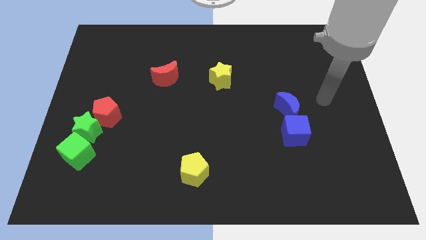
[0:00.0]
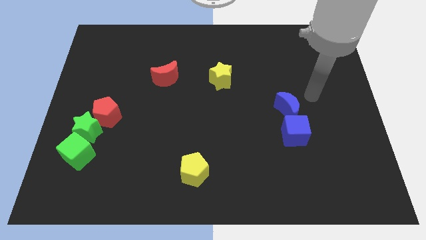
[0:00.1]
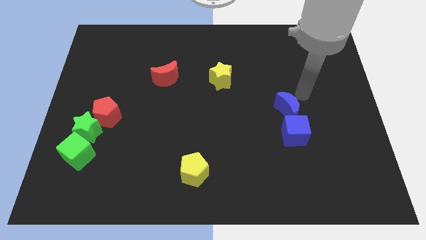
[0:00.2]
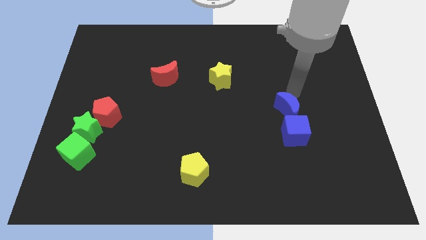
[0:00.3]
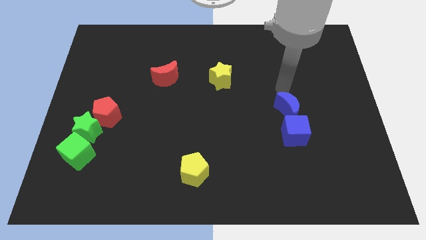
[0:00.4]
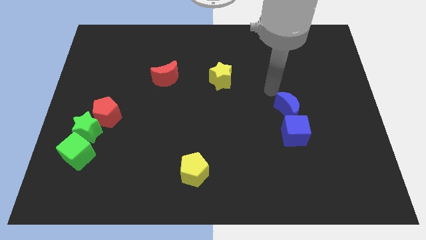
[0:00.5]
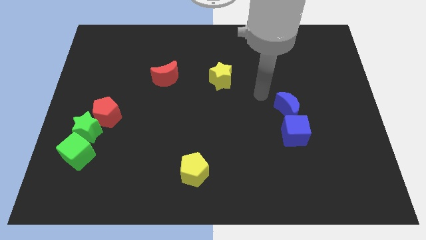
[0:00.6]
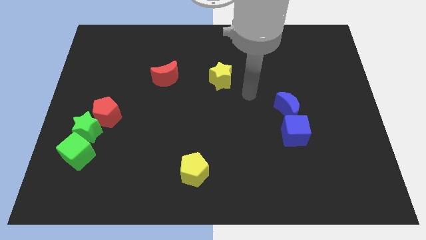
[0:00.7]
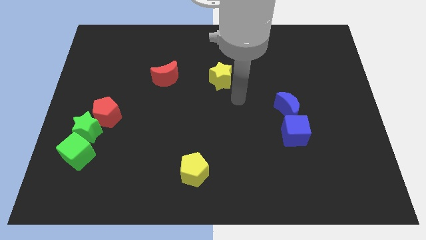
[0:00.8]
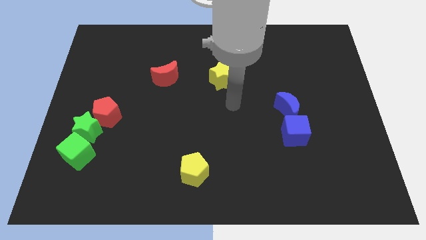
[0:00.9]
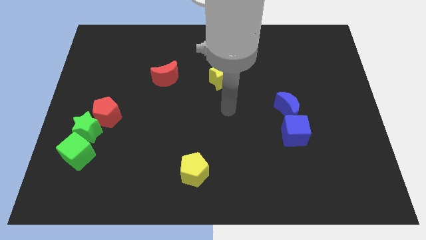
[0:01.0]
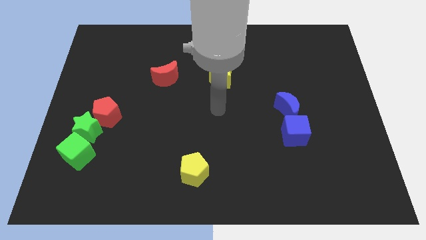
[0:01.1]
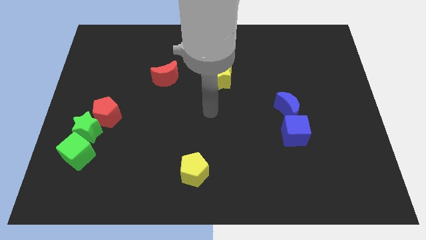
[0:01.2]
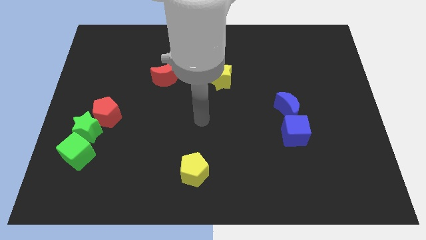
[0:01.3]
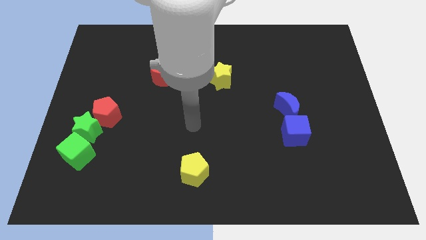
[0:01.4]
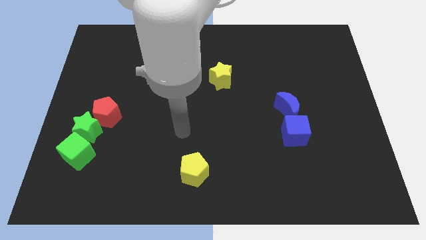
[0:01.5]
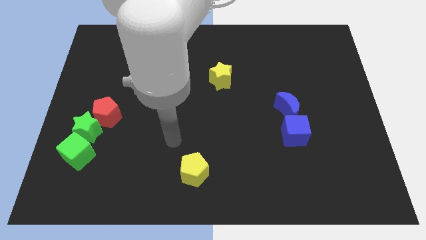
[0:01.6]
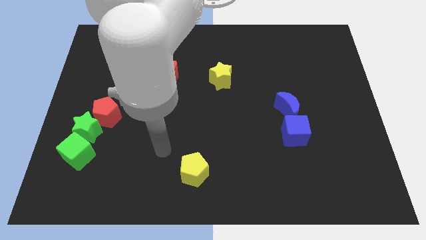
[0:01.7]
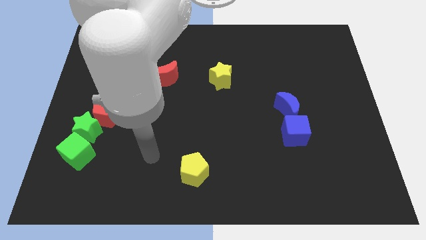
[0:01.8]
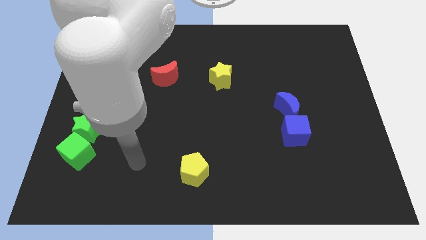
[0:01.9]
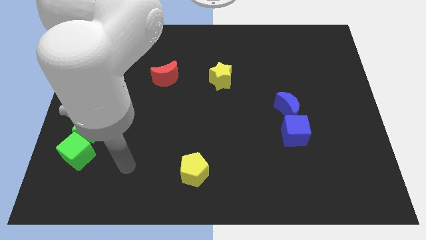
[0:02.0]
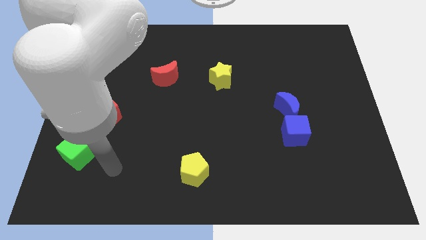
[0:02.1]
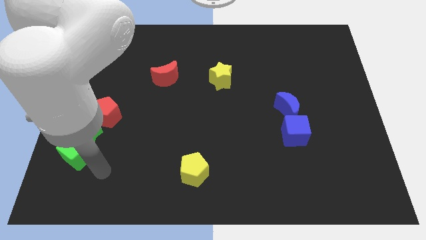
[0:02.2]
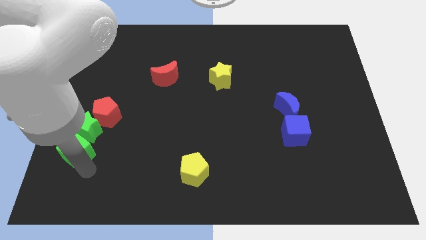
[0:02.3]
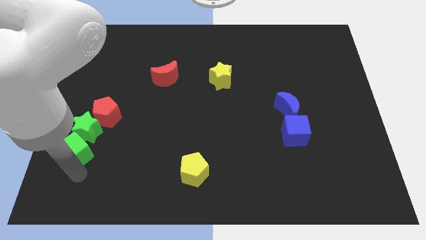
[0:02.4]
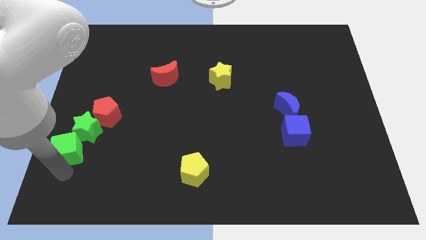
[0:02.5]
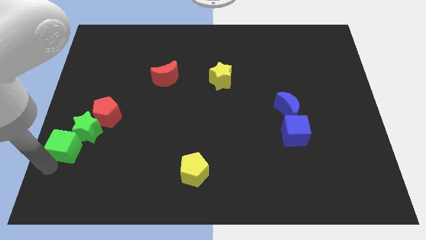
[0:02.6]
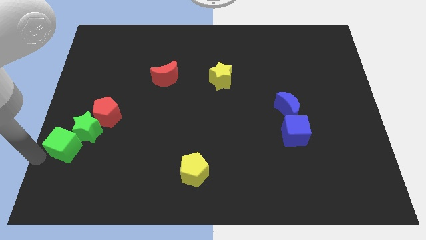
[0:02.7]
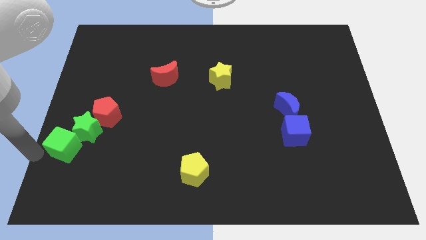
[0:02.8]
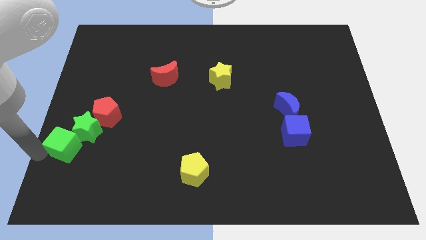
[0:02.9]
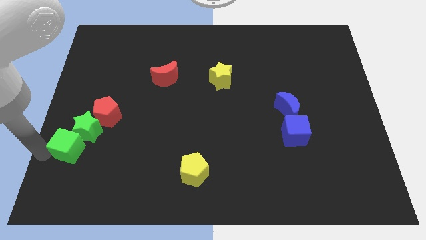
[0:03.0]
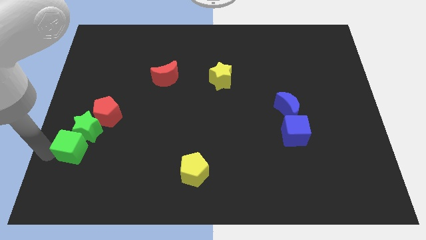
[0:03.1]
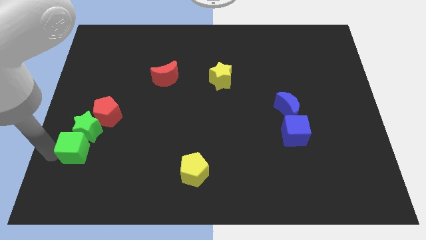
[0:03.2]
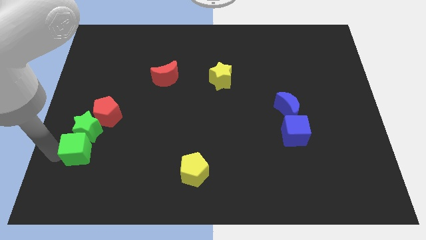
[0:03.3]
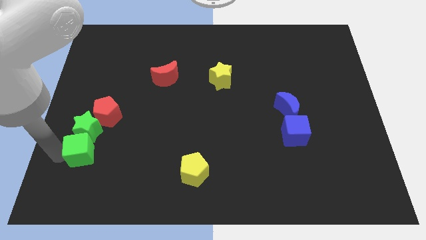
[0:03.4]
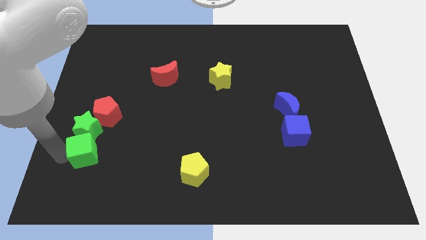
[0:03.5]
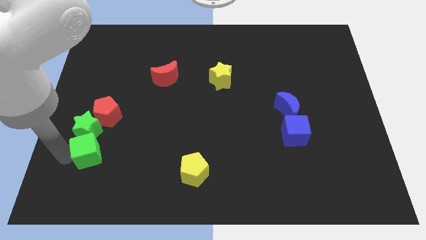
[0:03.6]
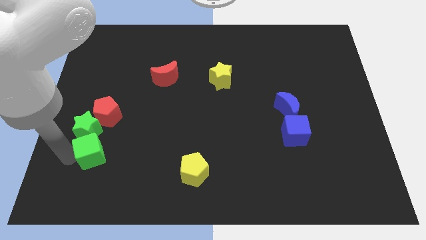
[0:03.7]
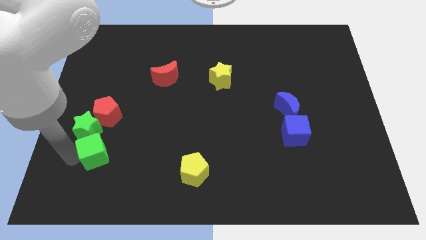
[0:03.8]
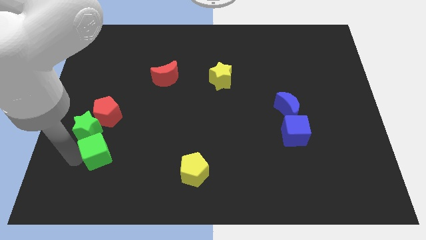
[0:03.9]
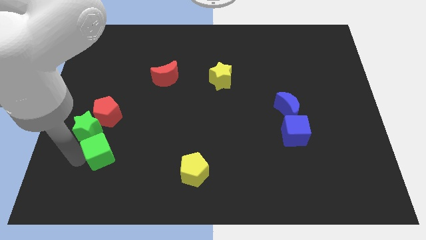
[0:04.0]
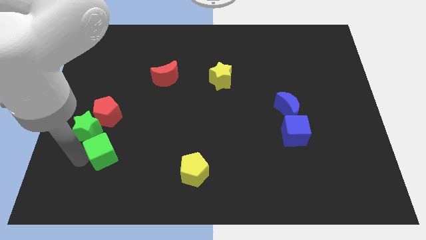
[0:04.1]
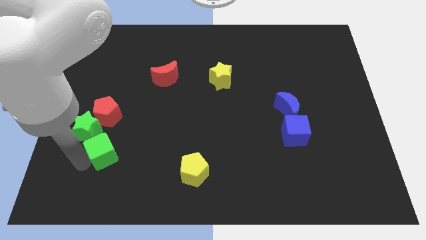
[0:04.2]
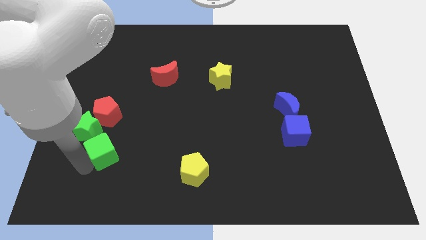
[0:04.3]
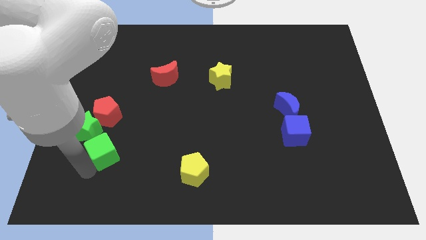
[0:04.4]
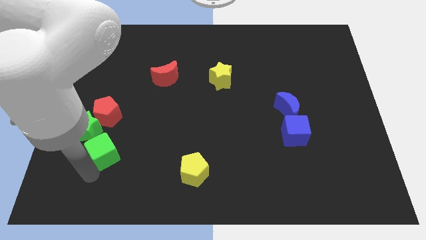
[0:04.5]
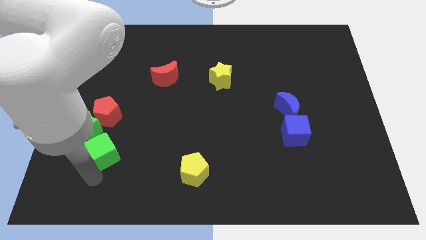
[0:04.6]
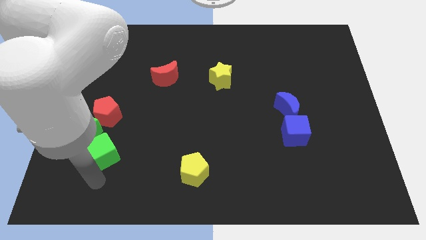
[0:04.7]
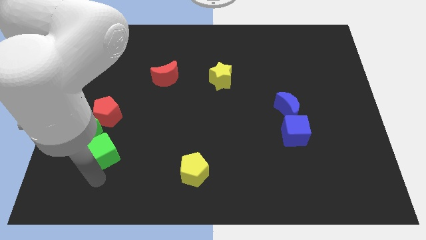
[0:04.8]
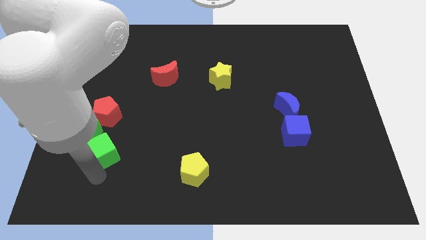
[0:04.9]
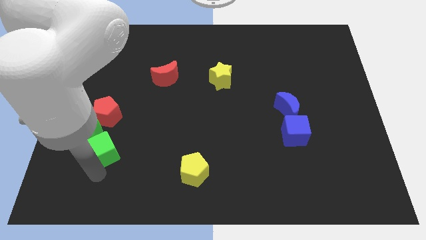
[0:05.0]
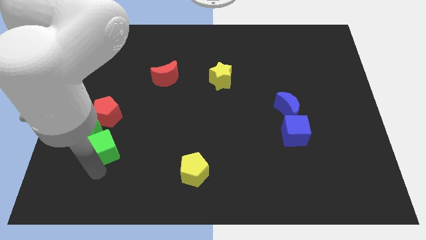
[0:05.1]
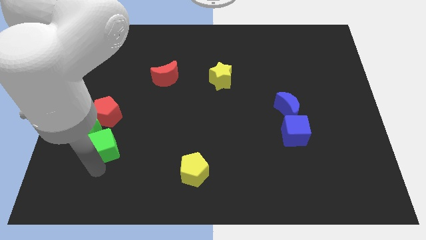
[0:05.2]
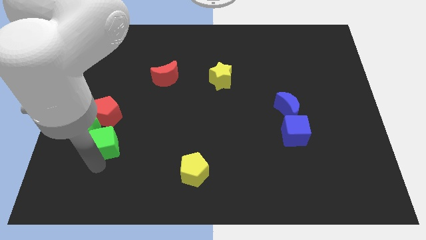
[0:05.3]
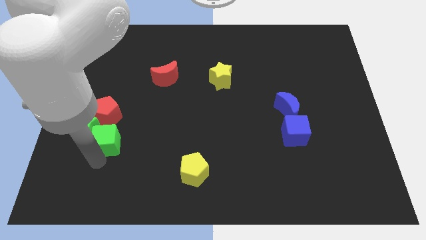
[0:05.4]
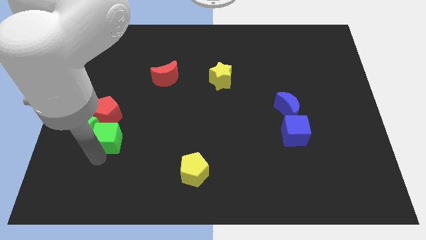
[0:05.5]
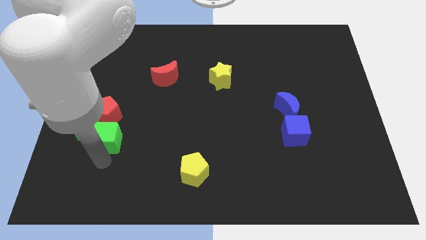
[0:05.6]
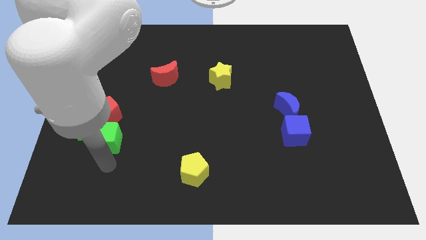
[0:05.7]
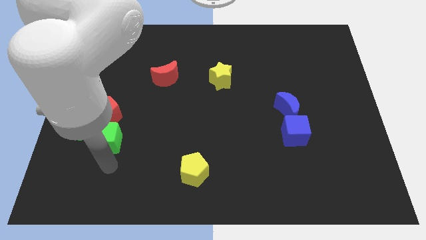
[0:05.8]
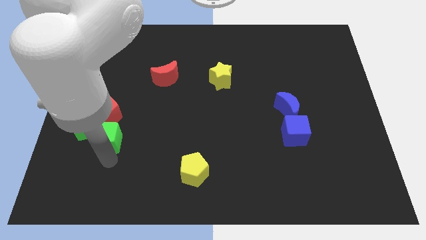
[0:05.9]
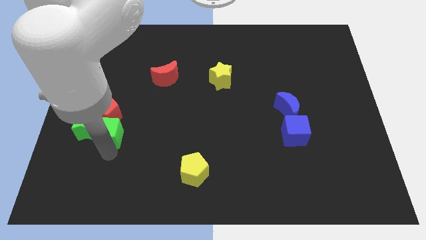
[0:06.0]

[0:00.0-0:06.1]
slide the green cube to the red pentagon

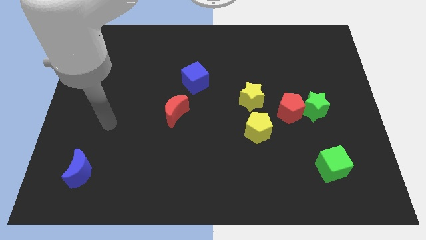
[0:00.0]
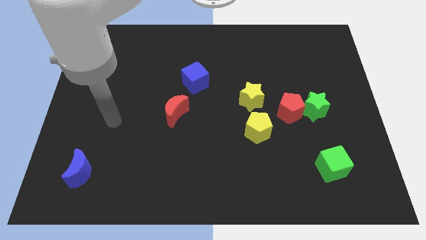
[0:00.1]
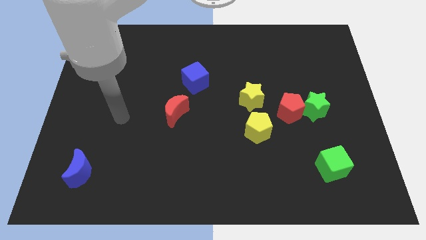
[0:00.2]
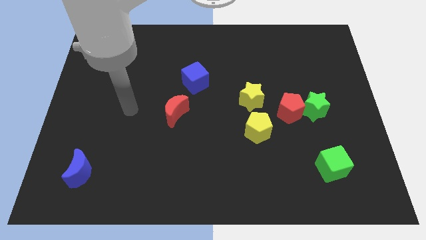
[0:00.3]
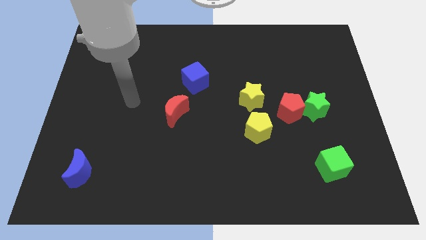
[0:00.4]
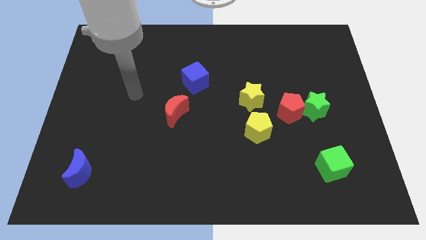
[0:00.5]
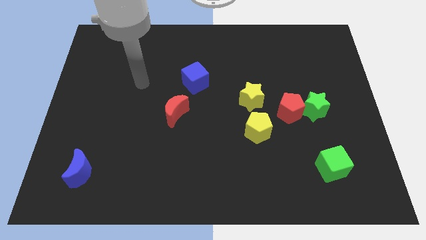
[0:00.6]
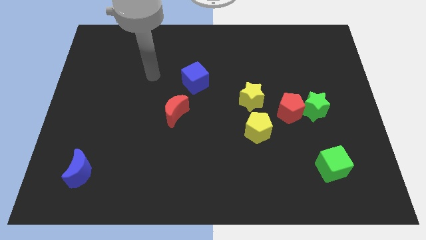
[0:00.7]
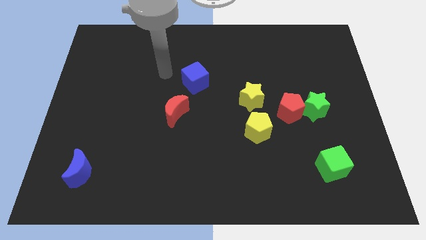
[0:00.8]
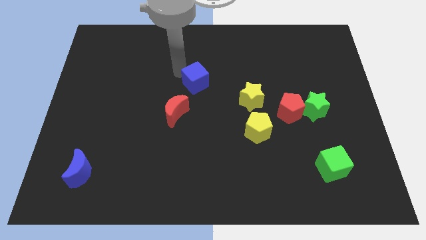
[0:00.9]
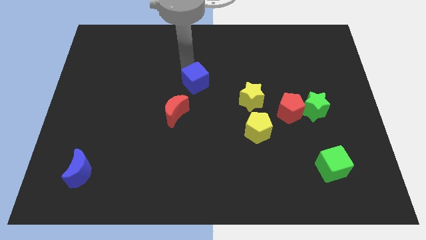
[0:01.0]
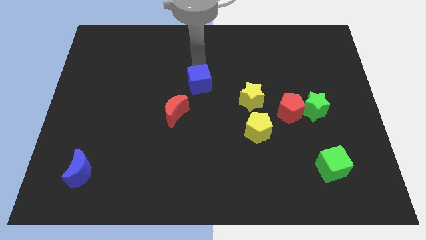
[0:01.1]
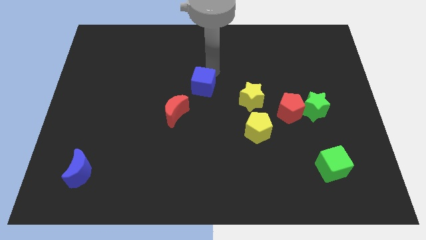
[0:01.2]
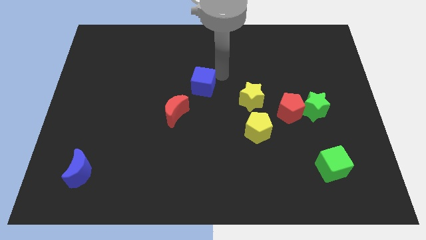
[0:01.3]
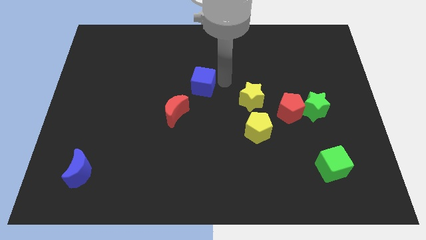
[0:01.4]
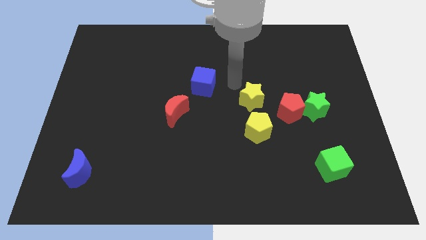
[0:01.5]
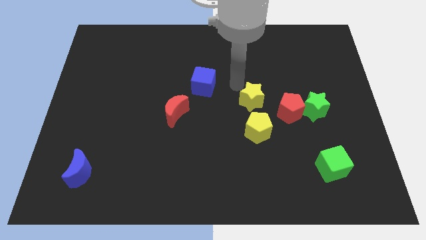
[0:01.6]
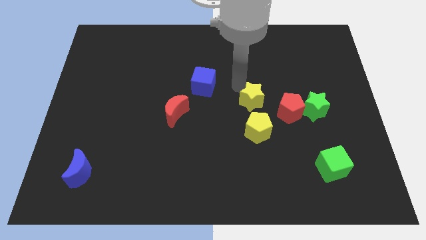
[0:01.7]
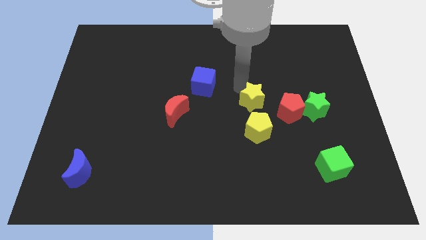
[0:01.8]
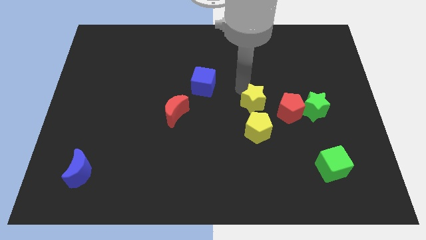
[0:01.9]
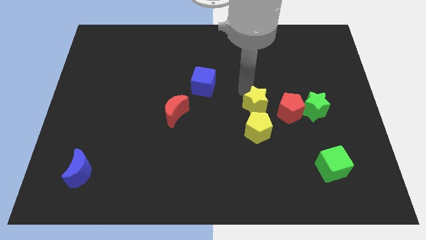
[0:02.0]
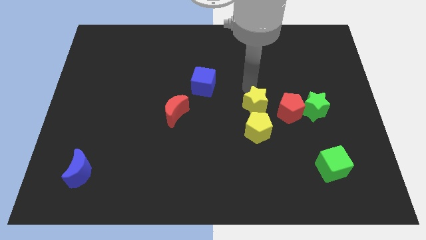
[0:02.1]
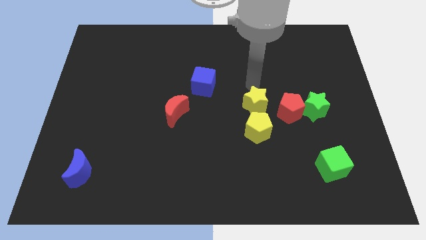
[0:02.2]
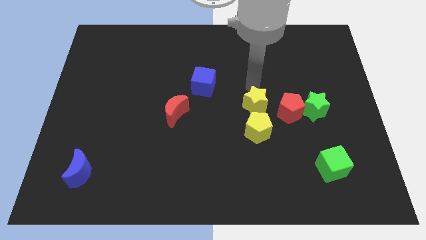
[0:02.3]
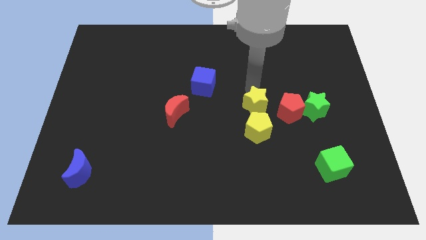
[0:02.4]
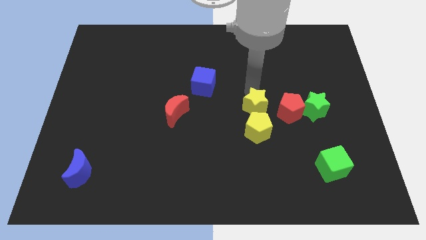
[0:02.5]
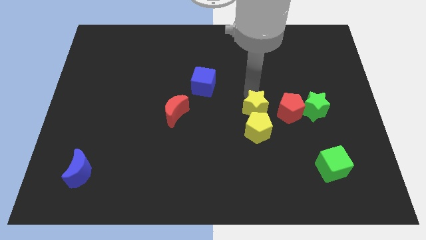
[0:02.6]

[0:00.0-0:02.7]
push the yellow star close to the yellow pentagon
